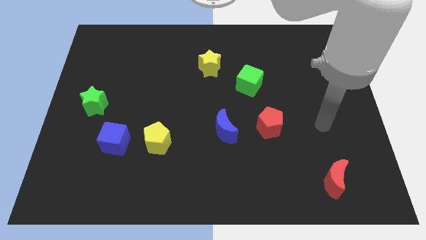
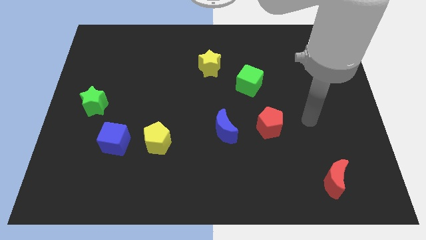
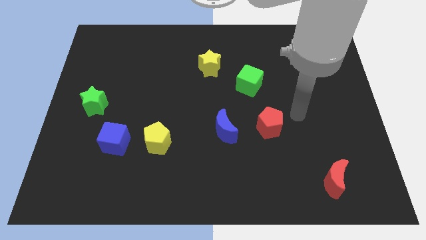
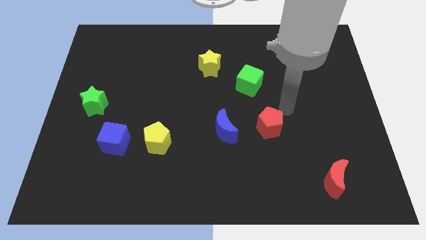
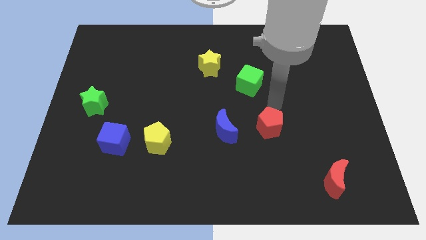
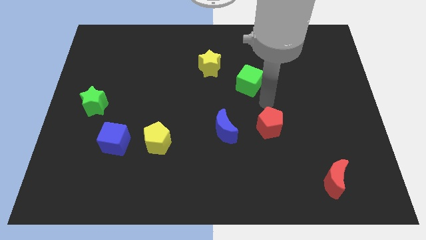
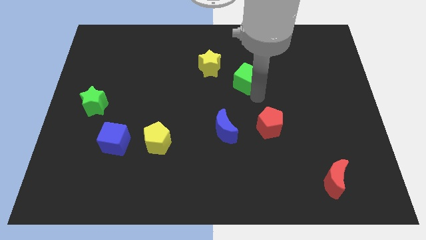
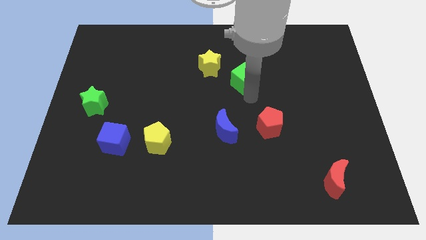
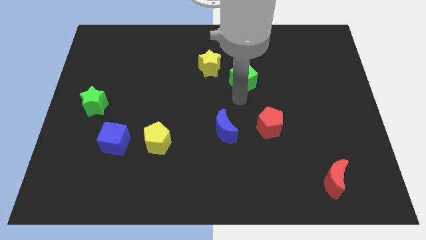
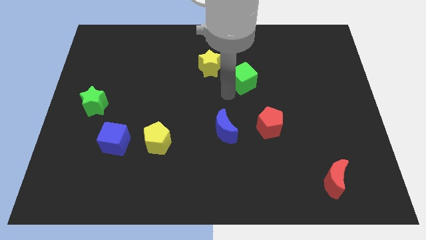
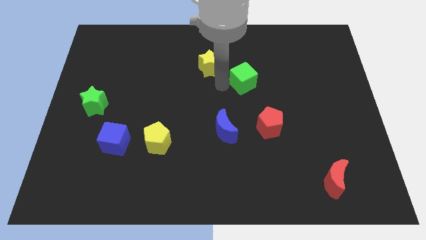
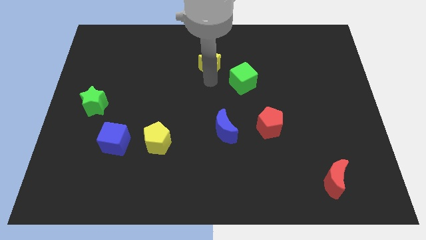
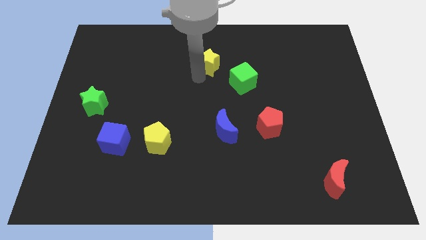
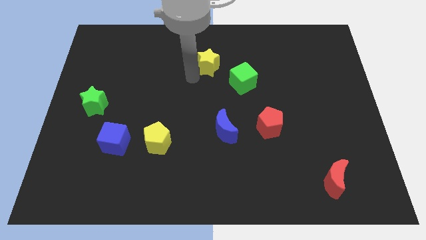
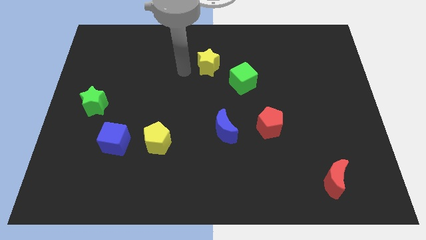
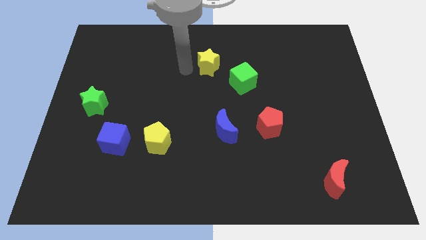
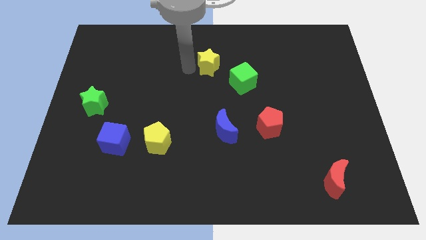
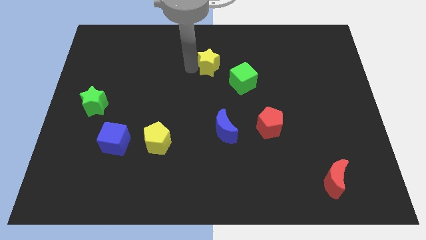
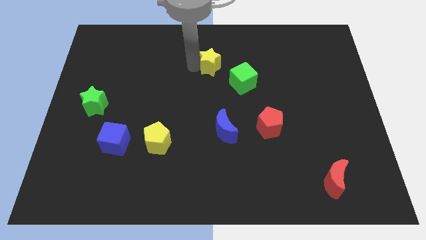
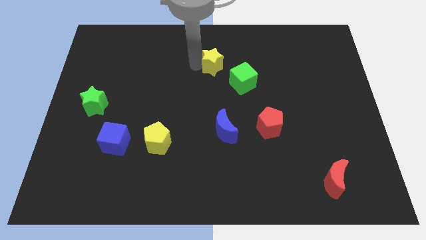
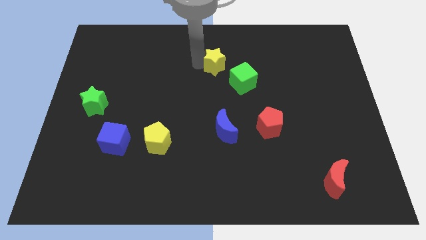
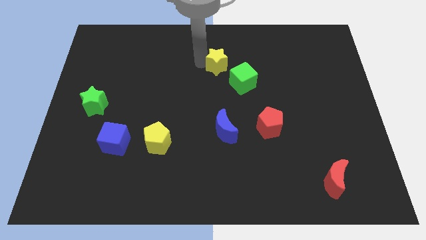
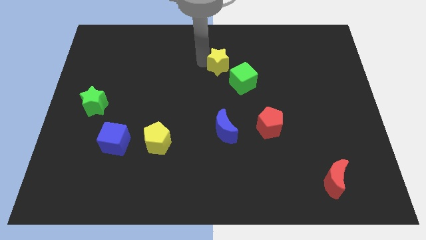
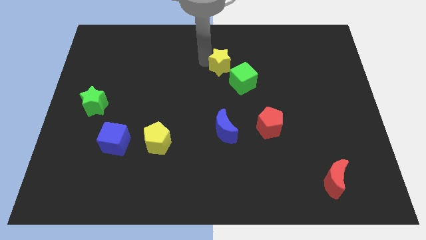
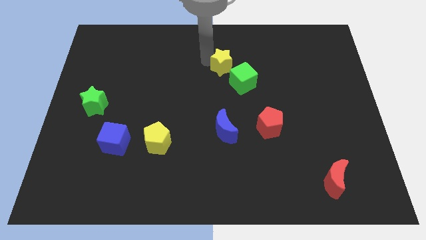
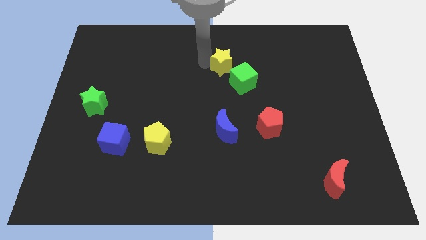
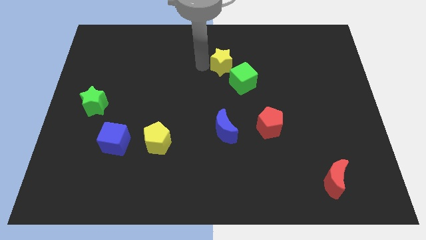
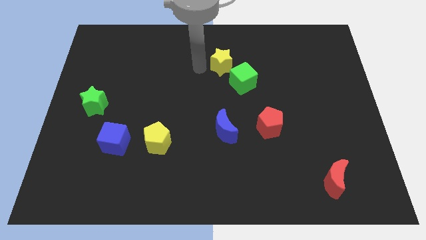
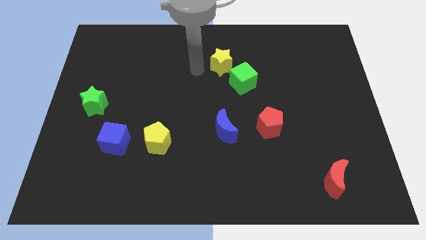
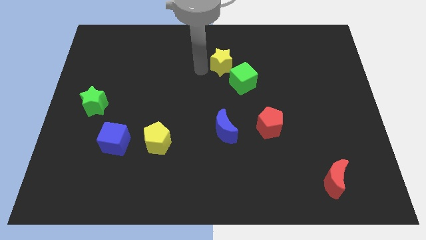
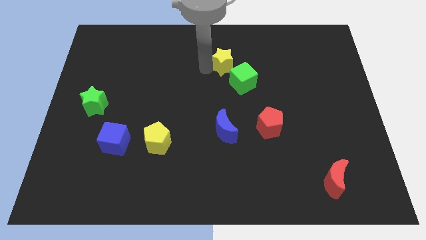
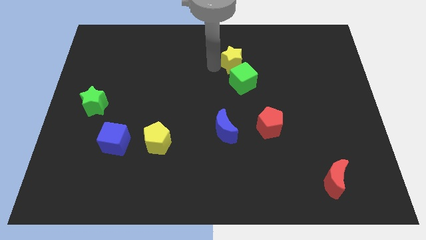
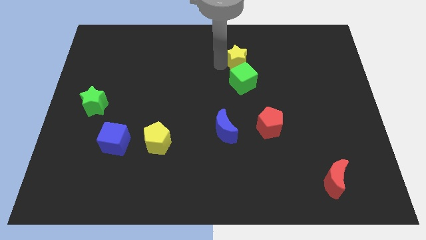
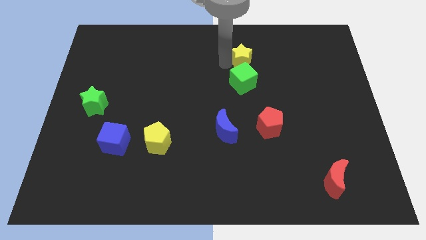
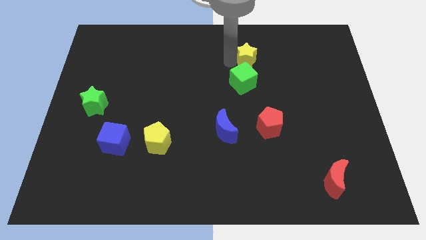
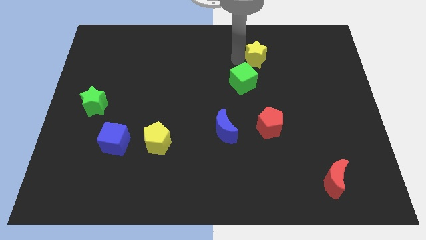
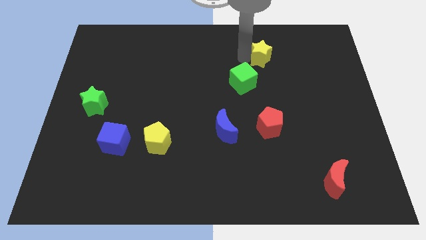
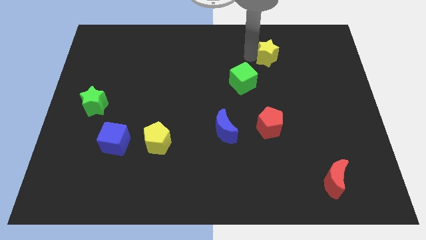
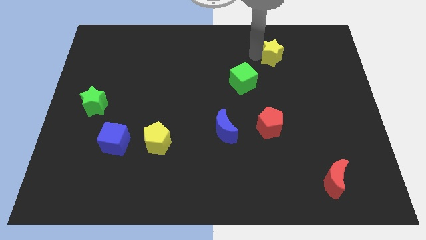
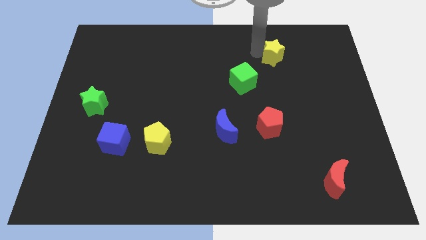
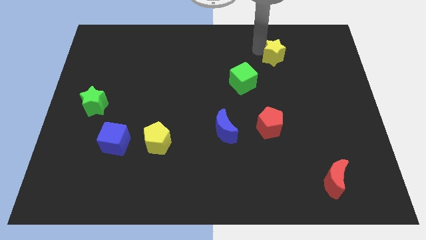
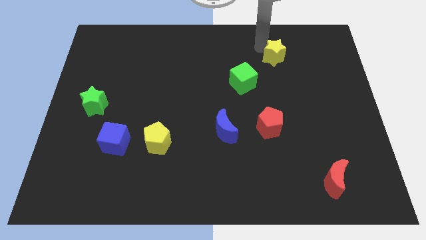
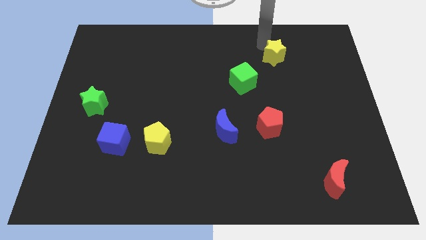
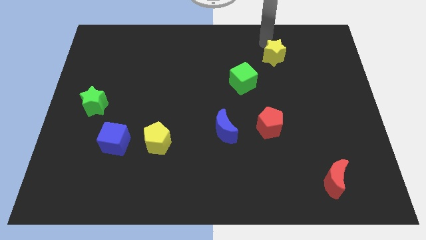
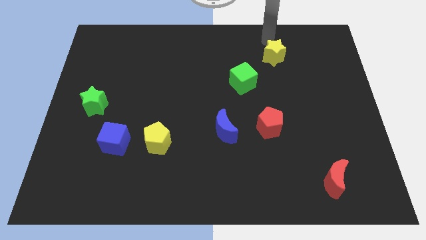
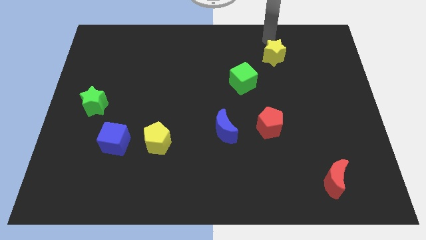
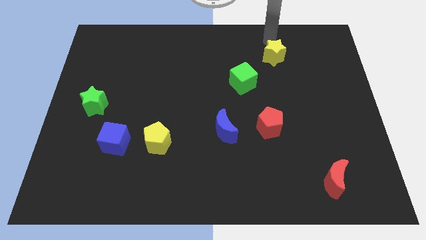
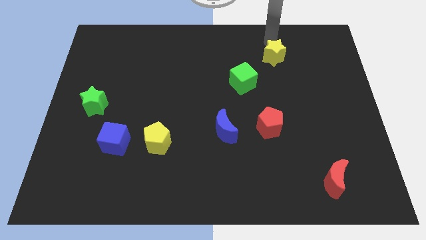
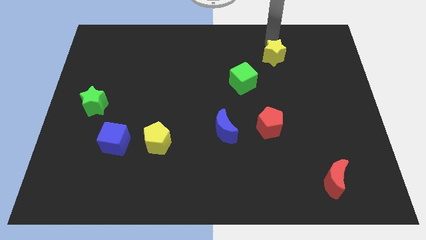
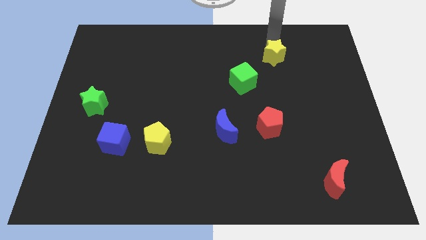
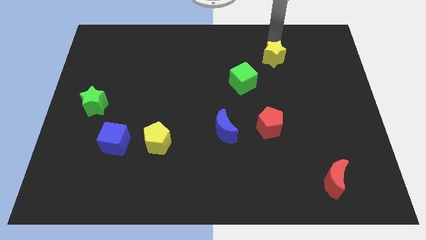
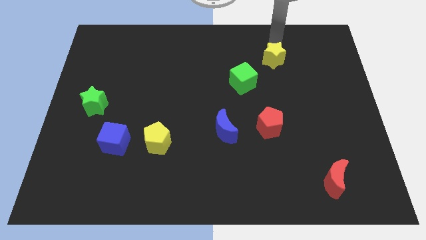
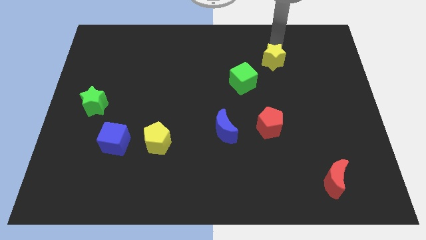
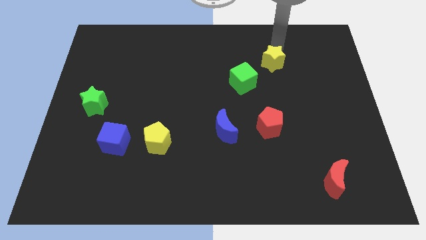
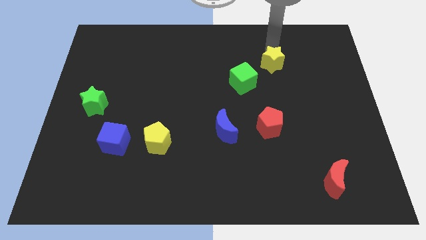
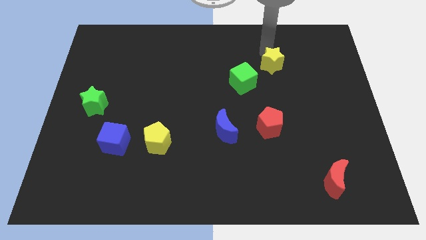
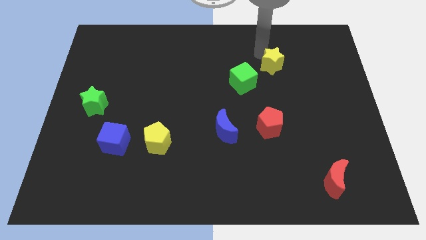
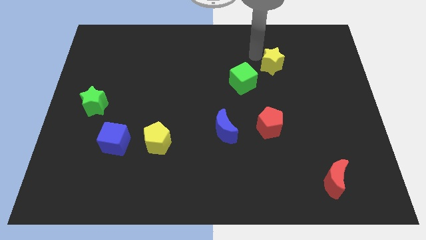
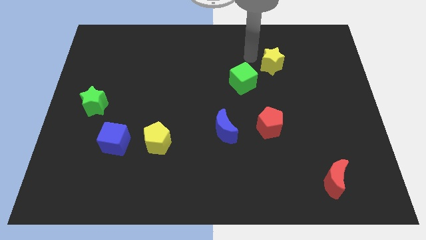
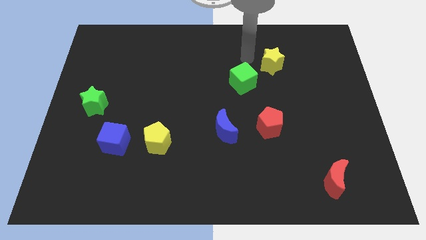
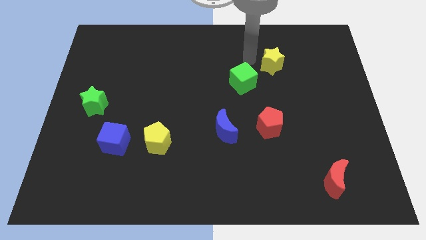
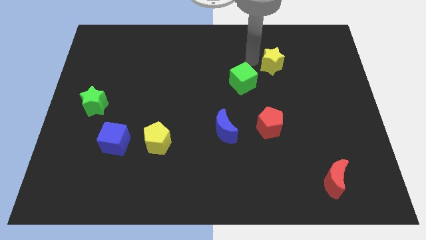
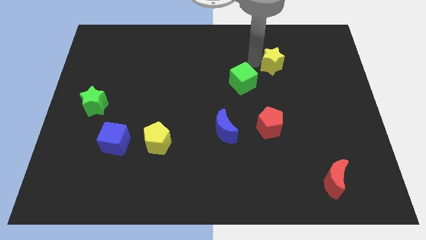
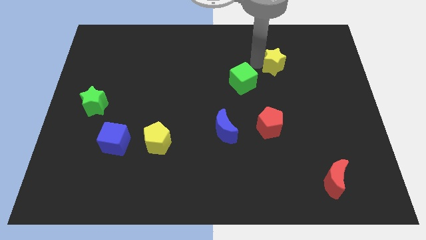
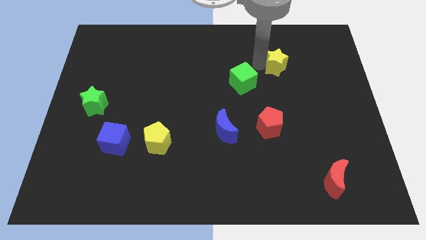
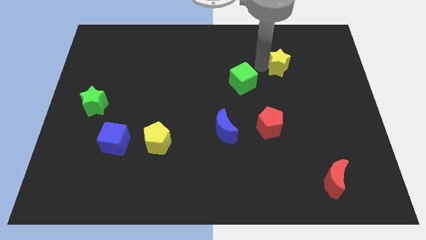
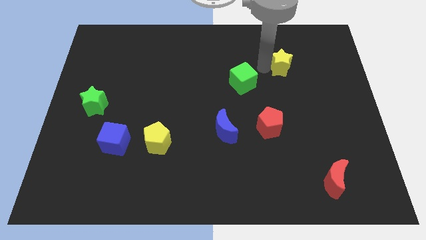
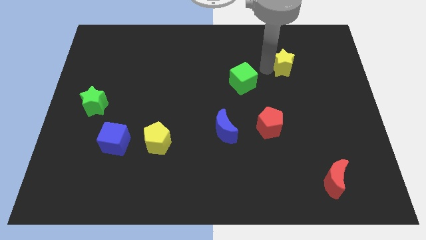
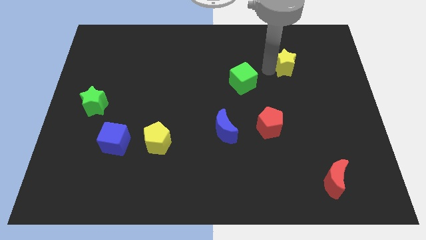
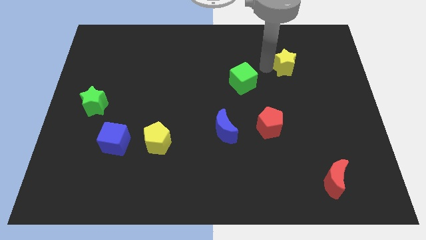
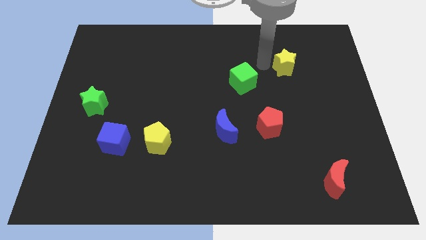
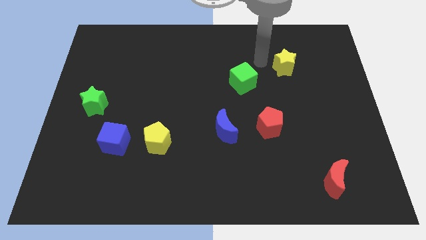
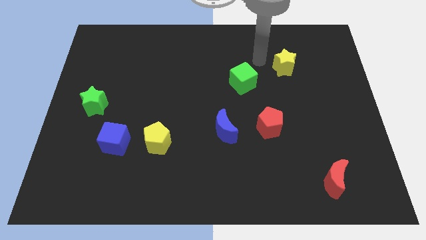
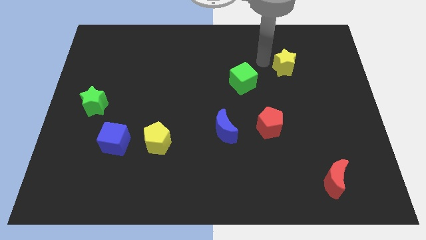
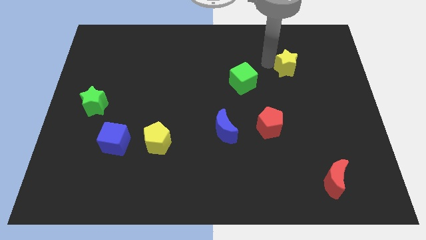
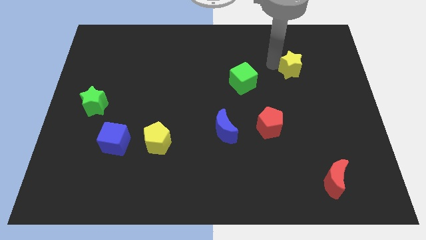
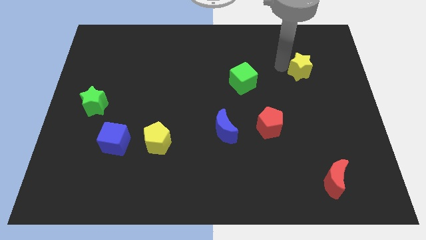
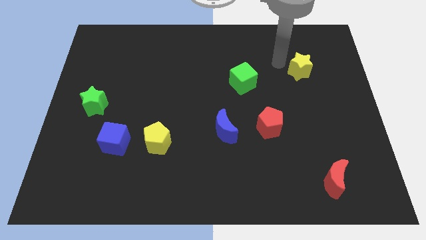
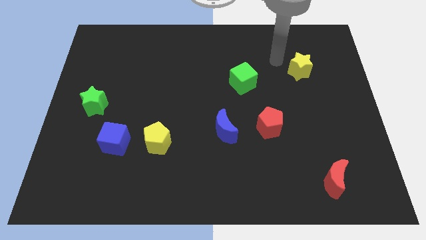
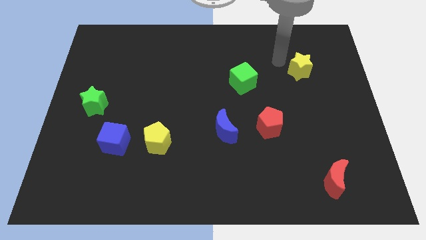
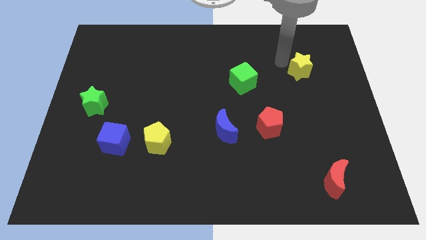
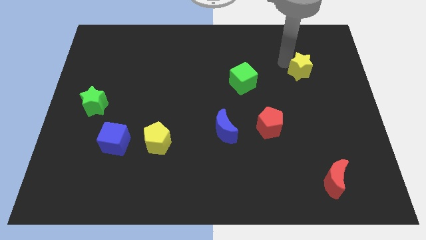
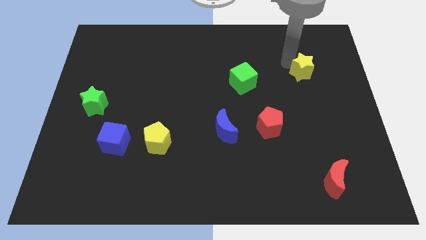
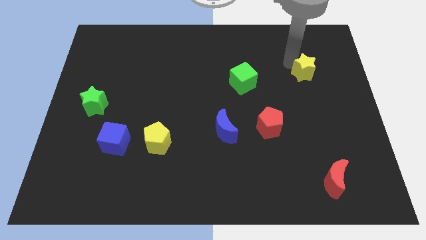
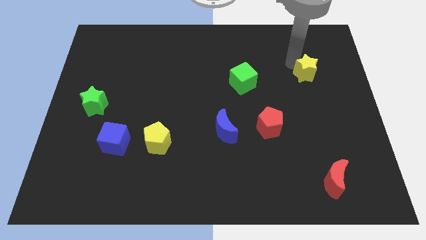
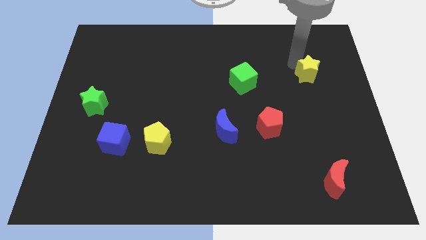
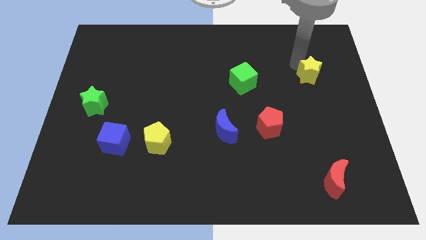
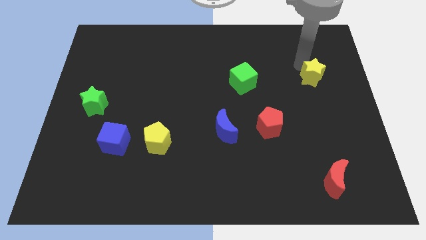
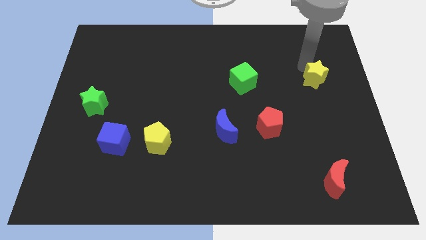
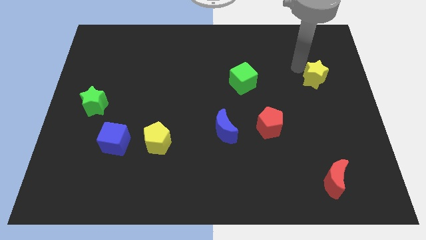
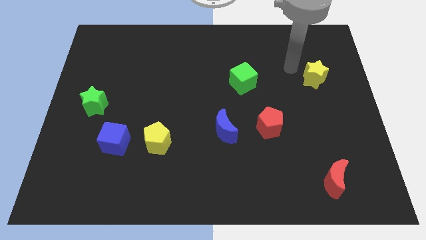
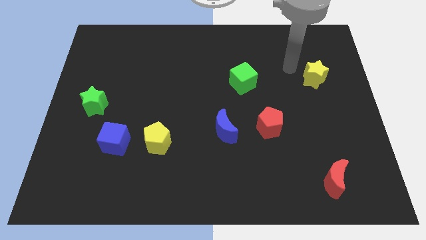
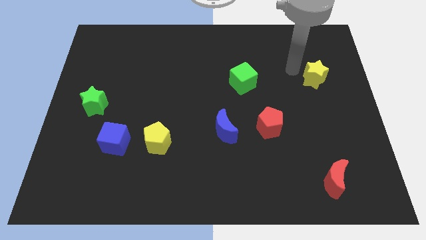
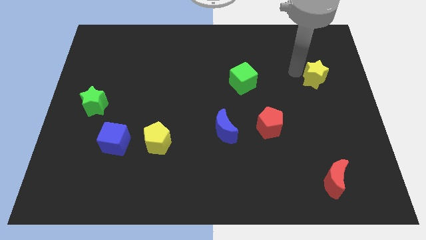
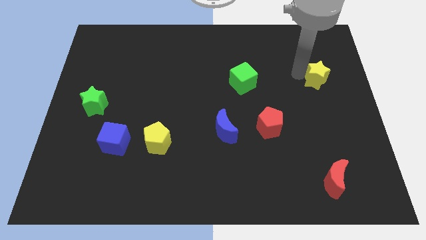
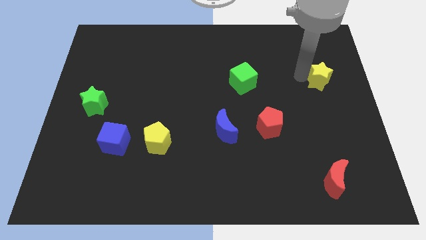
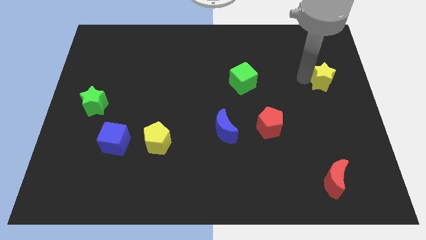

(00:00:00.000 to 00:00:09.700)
put the yellow star to the right side of the board
